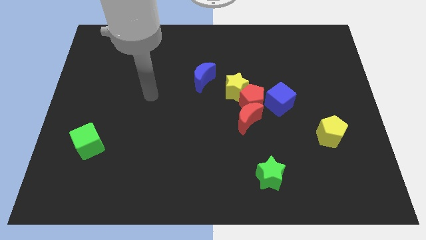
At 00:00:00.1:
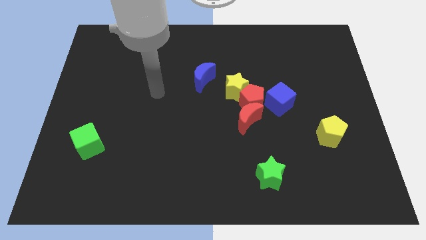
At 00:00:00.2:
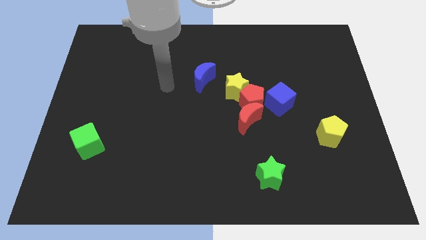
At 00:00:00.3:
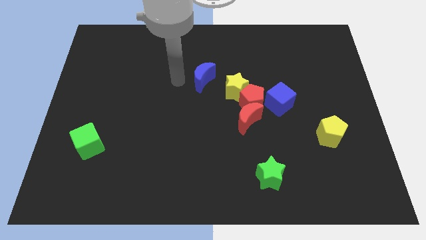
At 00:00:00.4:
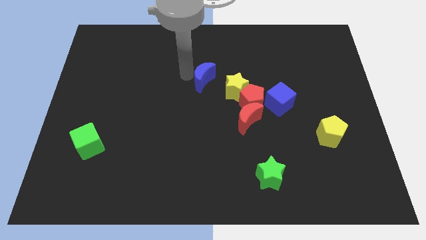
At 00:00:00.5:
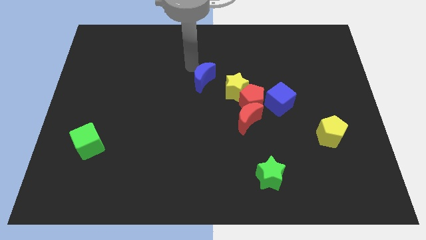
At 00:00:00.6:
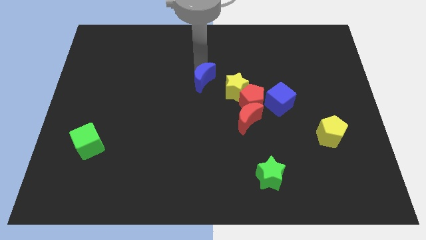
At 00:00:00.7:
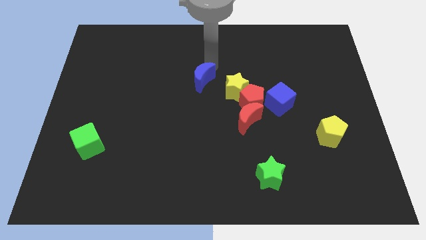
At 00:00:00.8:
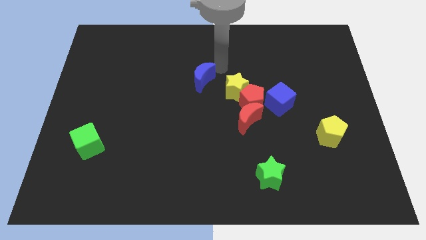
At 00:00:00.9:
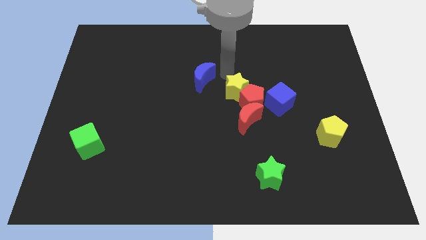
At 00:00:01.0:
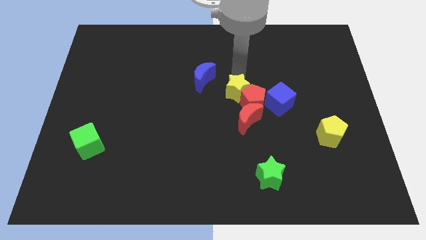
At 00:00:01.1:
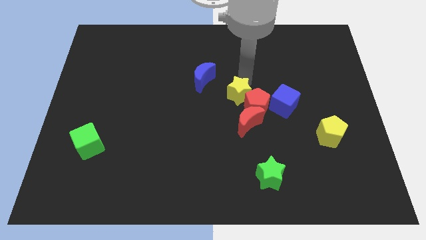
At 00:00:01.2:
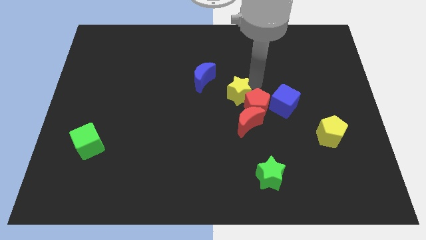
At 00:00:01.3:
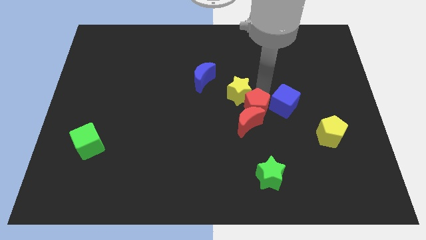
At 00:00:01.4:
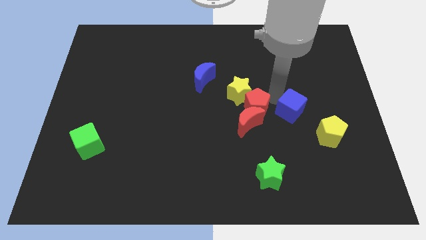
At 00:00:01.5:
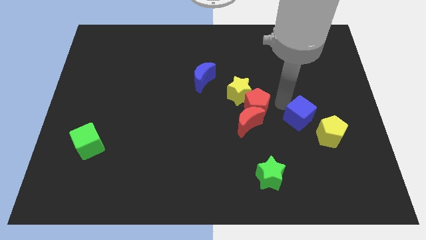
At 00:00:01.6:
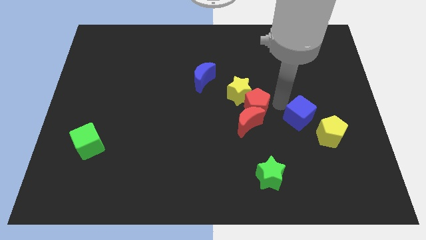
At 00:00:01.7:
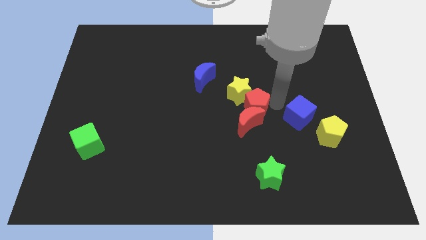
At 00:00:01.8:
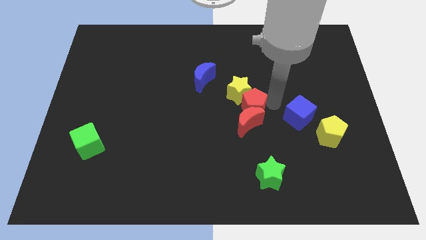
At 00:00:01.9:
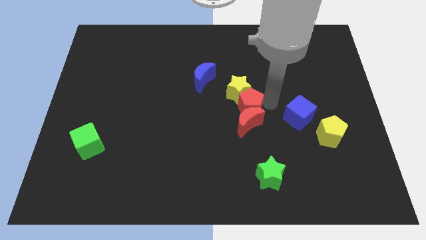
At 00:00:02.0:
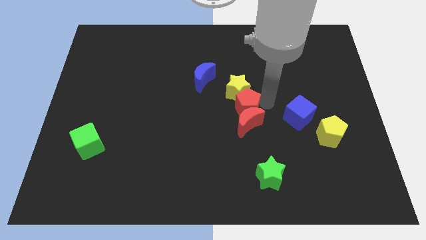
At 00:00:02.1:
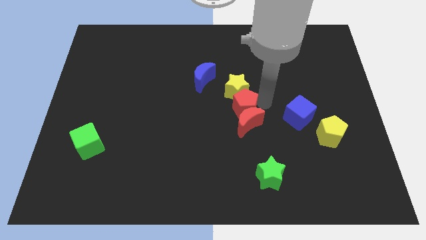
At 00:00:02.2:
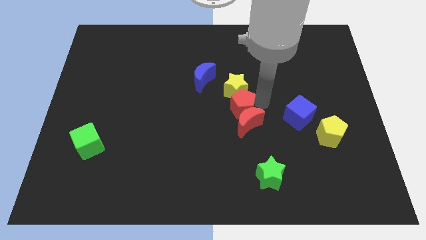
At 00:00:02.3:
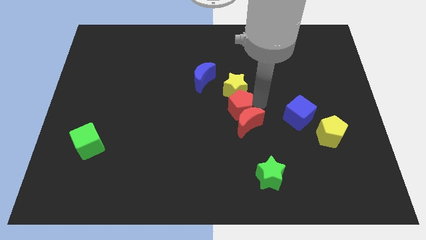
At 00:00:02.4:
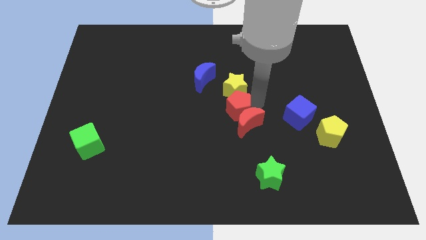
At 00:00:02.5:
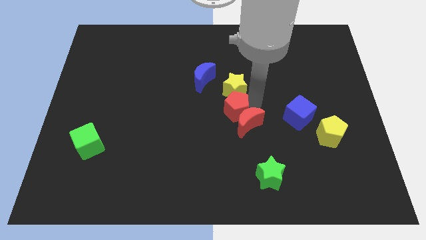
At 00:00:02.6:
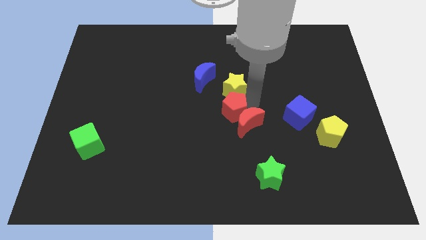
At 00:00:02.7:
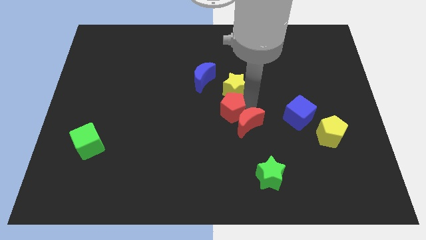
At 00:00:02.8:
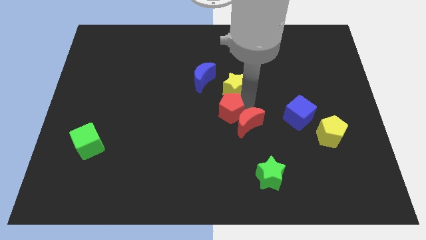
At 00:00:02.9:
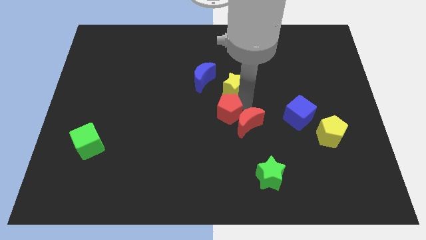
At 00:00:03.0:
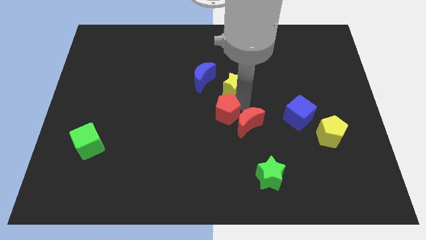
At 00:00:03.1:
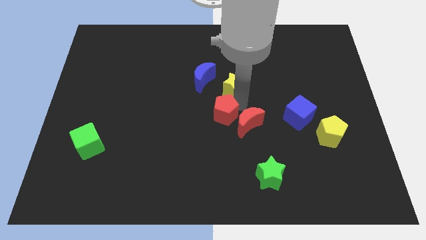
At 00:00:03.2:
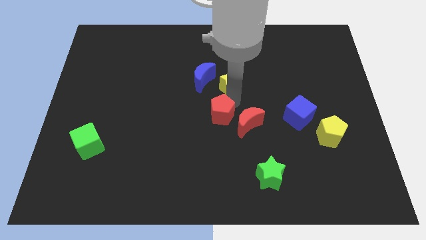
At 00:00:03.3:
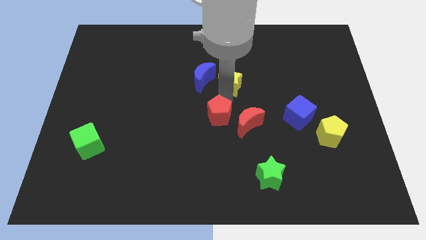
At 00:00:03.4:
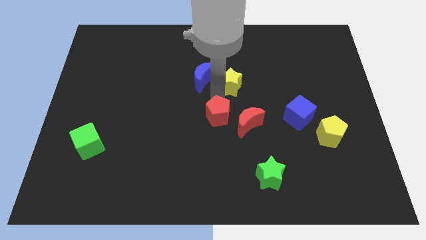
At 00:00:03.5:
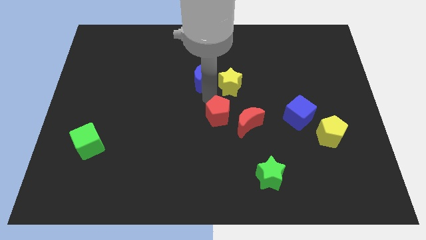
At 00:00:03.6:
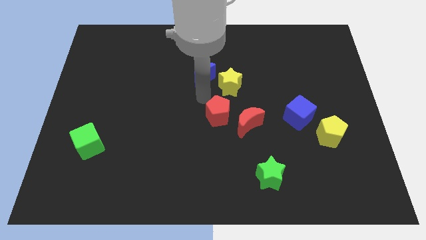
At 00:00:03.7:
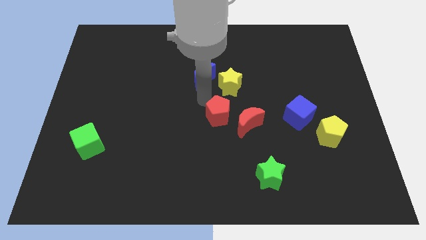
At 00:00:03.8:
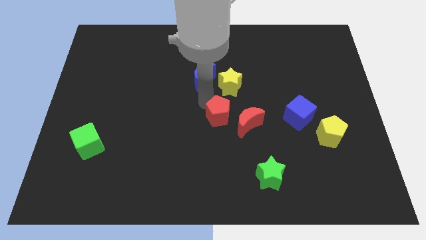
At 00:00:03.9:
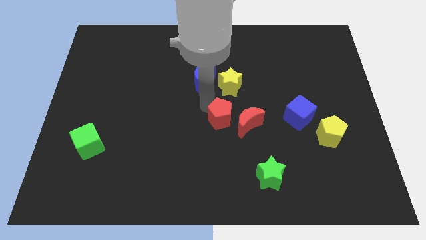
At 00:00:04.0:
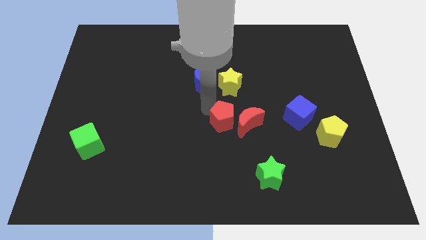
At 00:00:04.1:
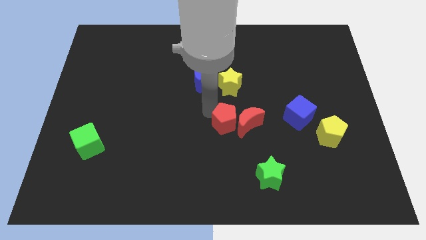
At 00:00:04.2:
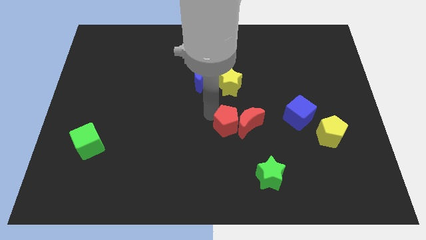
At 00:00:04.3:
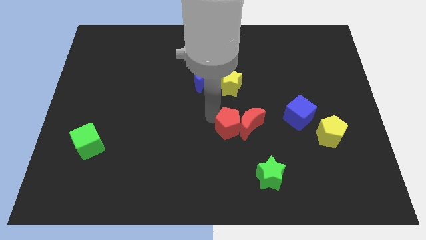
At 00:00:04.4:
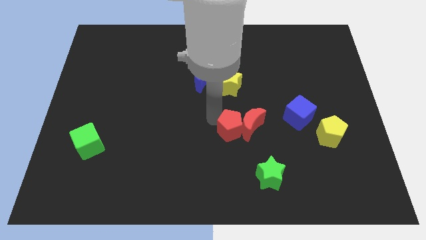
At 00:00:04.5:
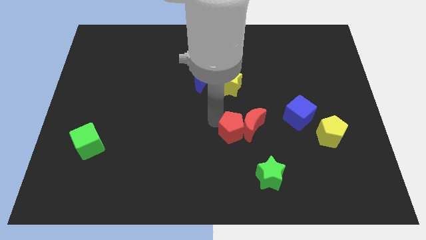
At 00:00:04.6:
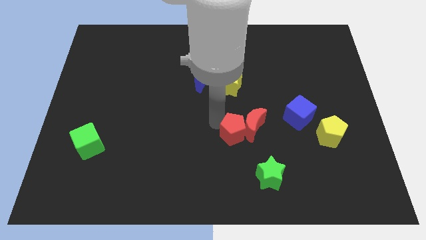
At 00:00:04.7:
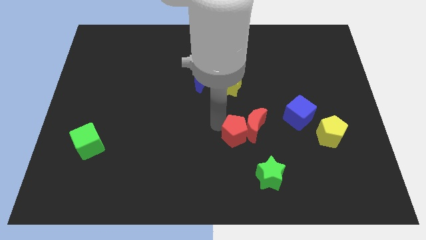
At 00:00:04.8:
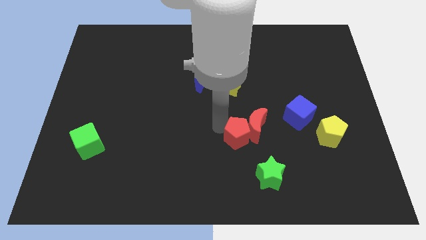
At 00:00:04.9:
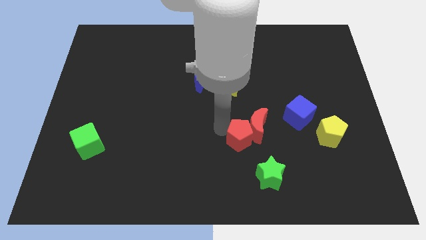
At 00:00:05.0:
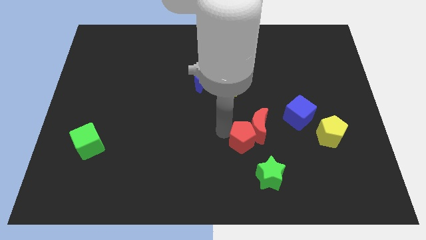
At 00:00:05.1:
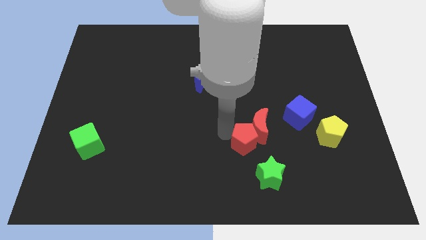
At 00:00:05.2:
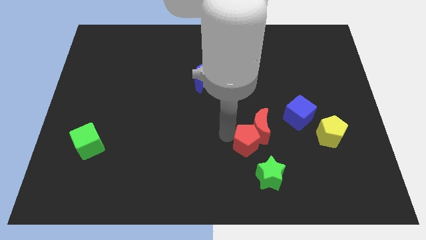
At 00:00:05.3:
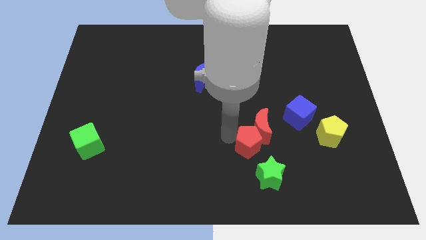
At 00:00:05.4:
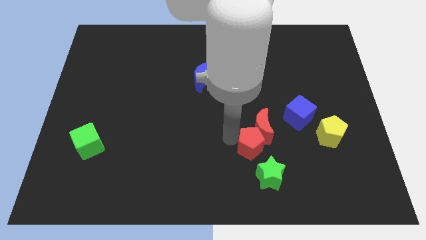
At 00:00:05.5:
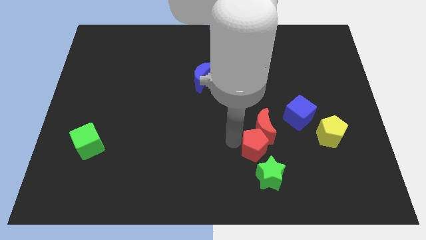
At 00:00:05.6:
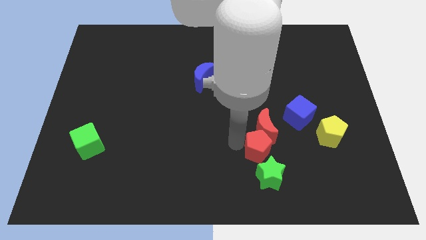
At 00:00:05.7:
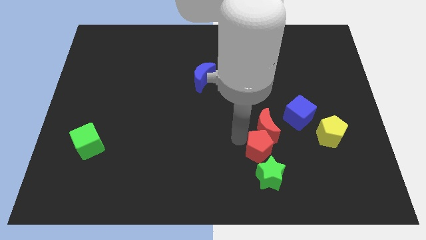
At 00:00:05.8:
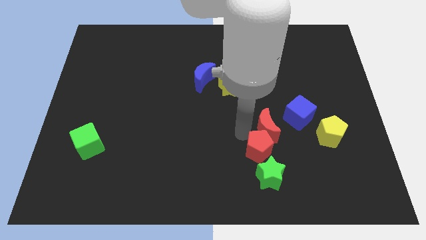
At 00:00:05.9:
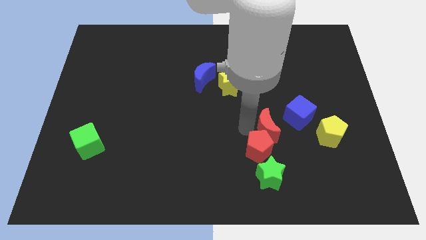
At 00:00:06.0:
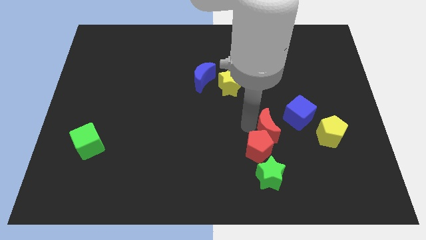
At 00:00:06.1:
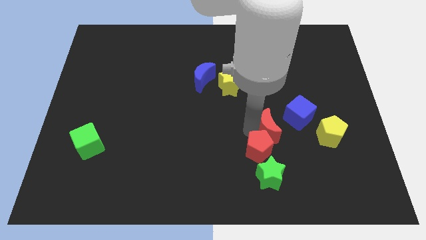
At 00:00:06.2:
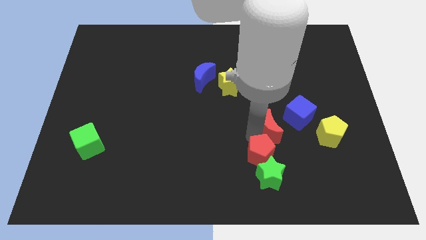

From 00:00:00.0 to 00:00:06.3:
slide the red pentagon next to the green star

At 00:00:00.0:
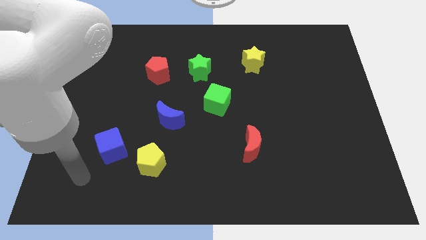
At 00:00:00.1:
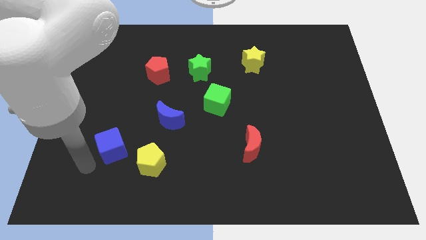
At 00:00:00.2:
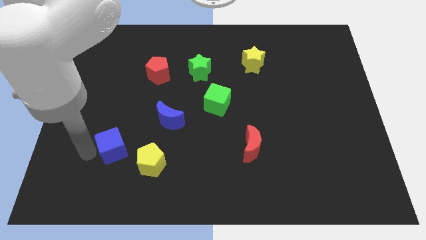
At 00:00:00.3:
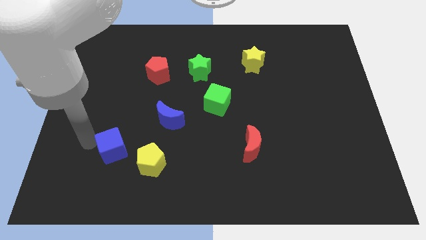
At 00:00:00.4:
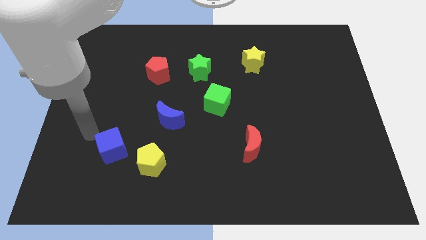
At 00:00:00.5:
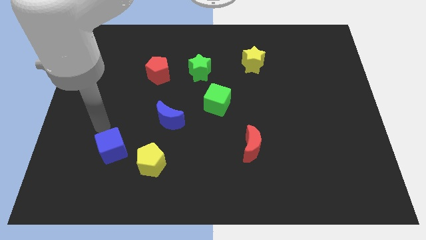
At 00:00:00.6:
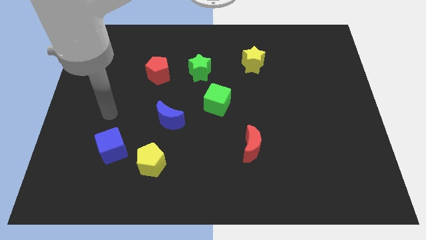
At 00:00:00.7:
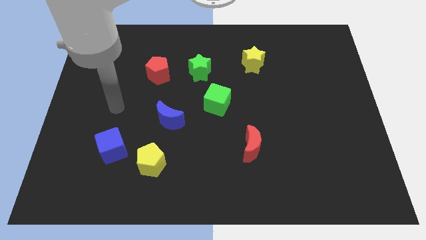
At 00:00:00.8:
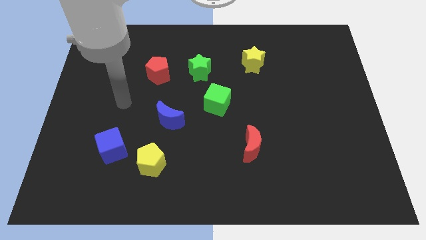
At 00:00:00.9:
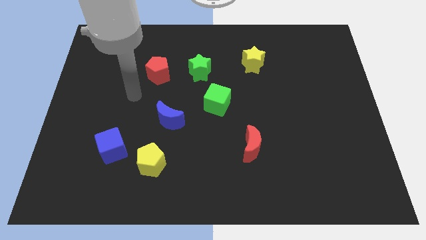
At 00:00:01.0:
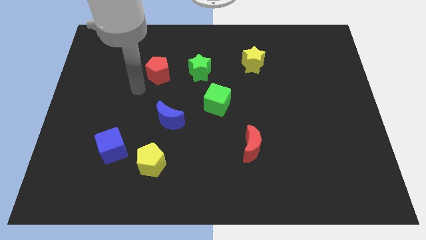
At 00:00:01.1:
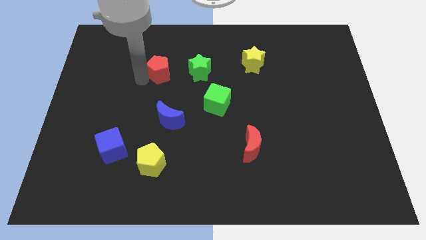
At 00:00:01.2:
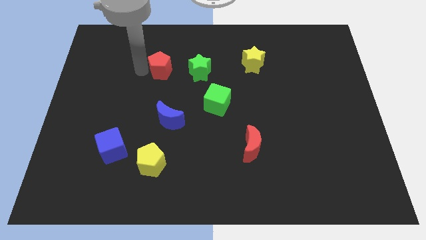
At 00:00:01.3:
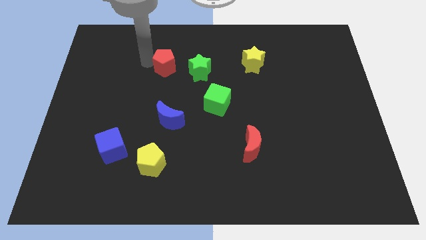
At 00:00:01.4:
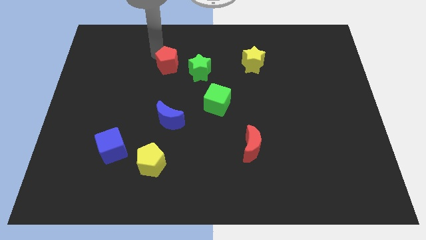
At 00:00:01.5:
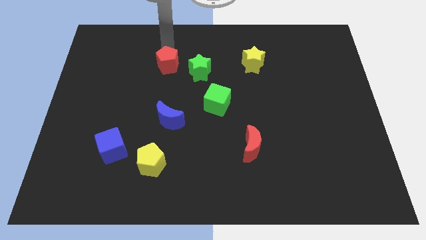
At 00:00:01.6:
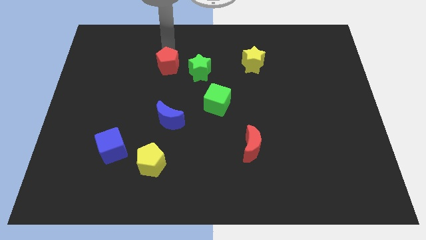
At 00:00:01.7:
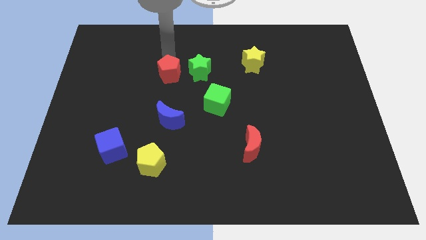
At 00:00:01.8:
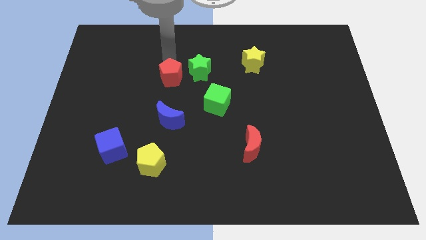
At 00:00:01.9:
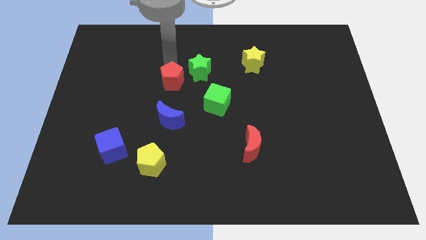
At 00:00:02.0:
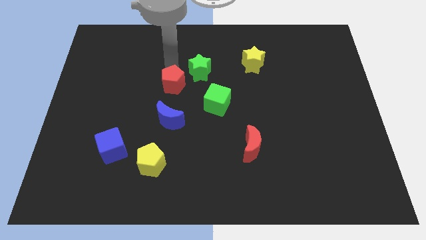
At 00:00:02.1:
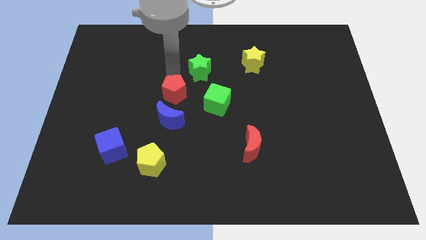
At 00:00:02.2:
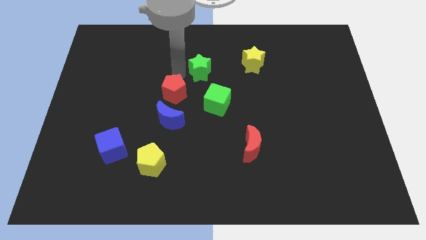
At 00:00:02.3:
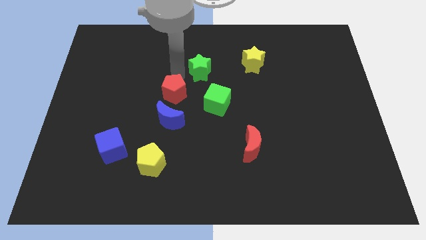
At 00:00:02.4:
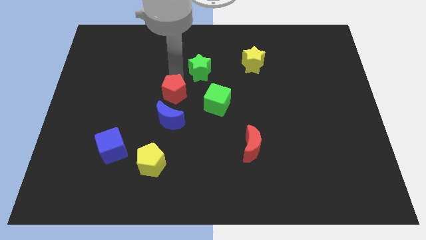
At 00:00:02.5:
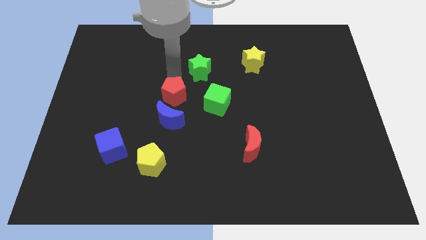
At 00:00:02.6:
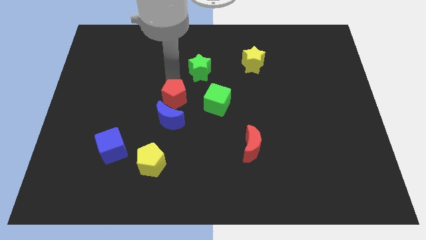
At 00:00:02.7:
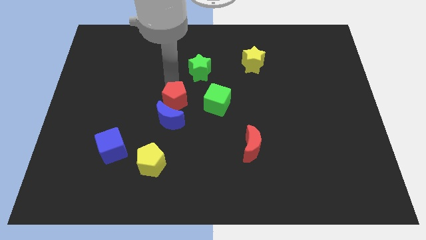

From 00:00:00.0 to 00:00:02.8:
move the red pentagon close to the blue moon
